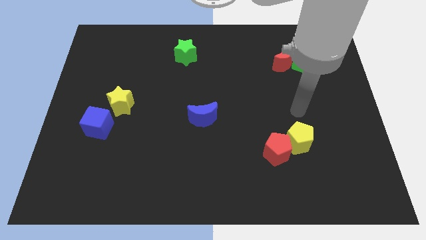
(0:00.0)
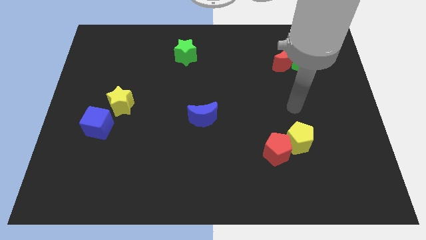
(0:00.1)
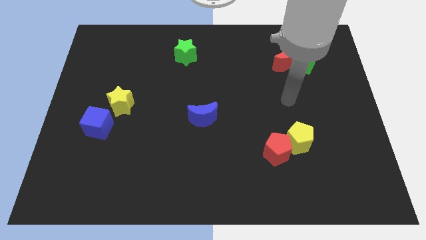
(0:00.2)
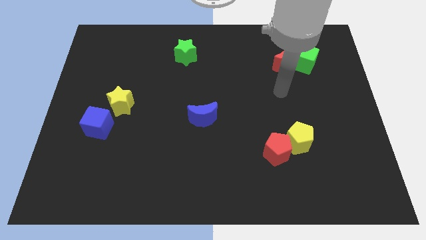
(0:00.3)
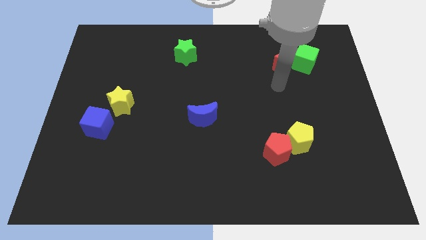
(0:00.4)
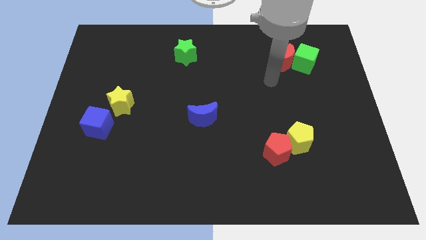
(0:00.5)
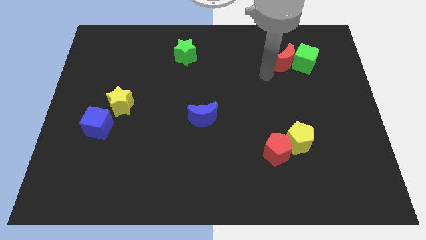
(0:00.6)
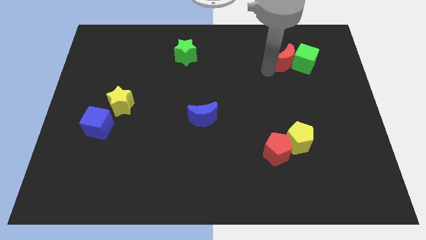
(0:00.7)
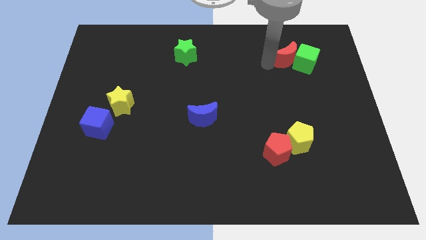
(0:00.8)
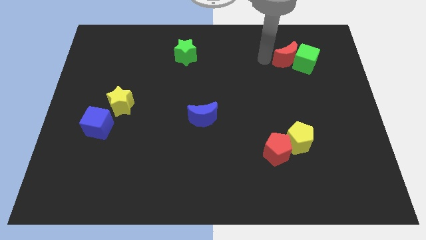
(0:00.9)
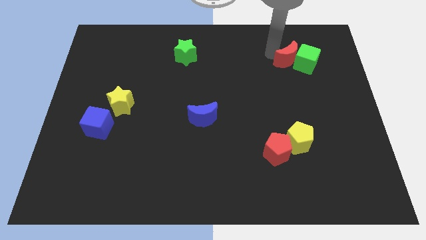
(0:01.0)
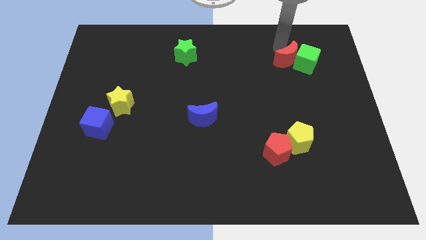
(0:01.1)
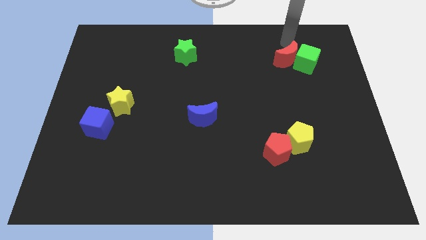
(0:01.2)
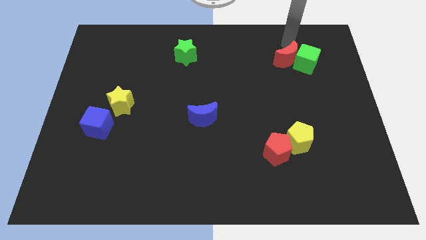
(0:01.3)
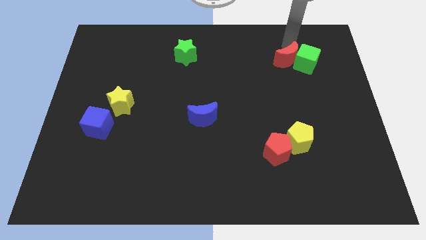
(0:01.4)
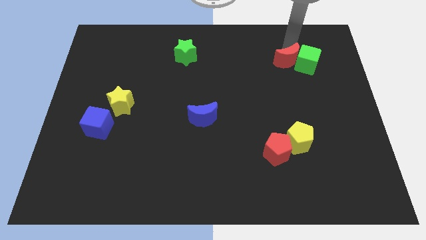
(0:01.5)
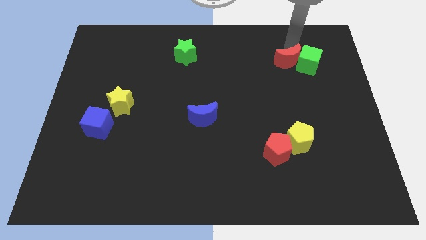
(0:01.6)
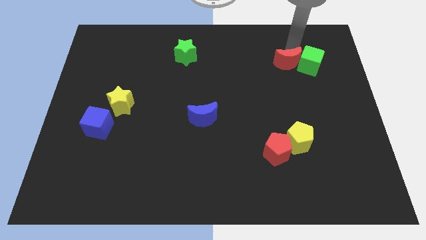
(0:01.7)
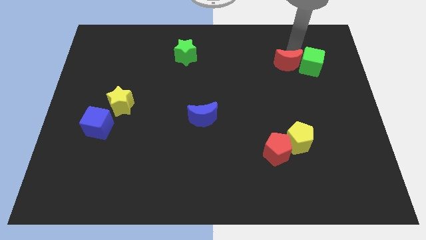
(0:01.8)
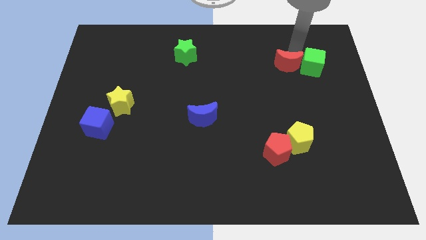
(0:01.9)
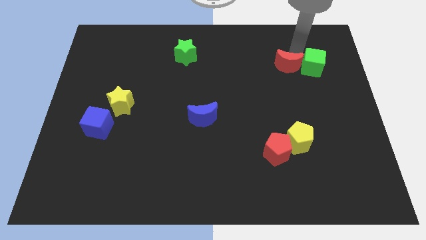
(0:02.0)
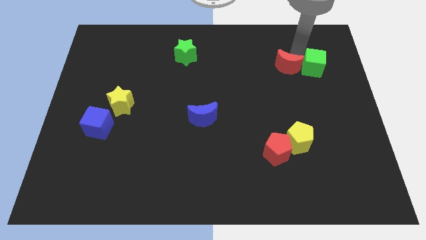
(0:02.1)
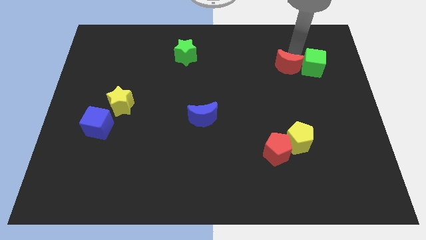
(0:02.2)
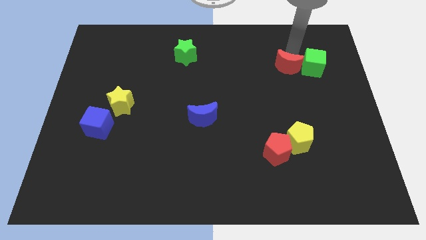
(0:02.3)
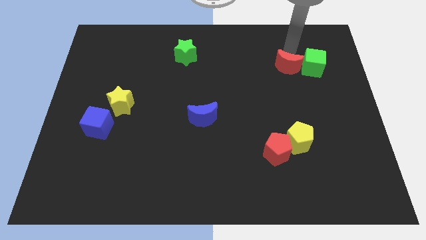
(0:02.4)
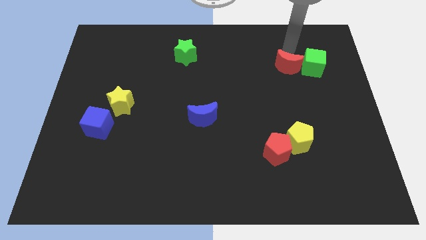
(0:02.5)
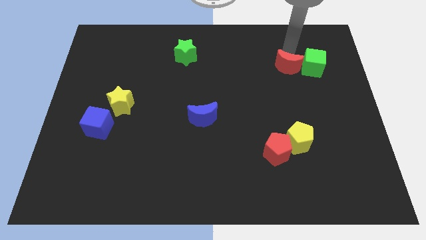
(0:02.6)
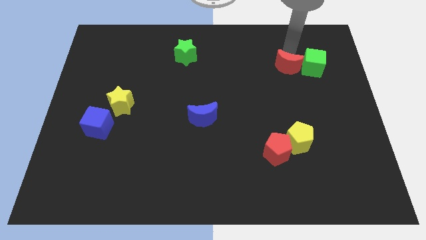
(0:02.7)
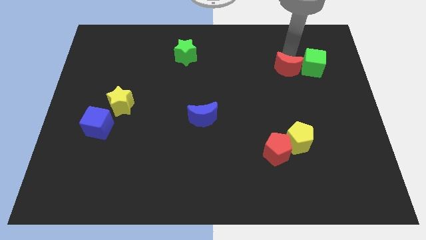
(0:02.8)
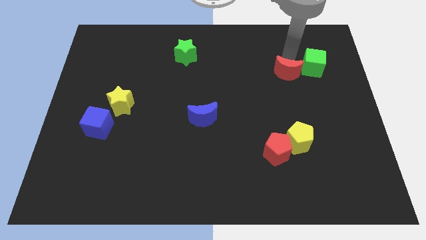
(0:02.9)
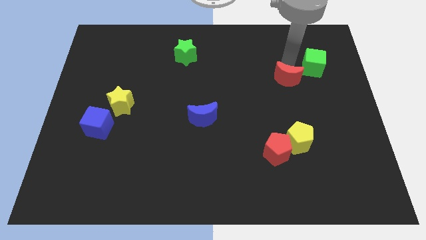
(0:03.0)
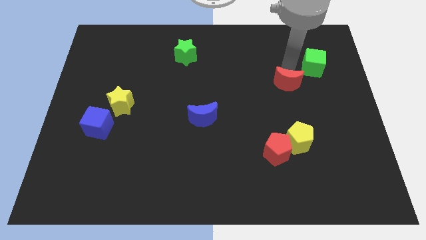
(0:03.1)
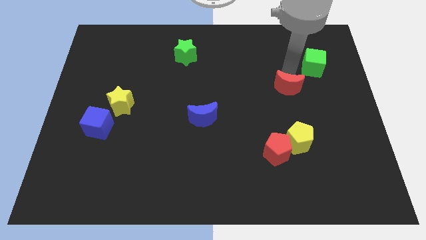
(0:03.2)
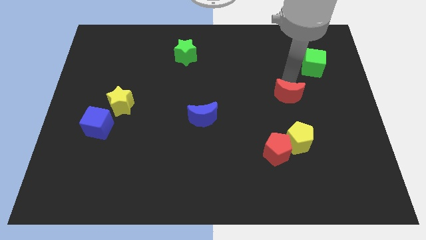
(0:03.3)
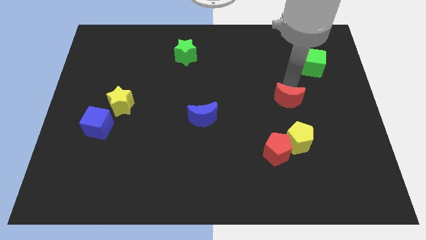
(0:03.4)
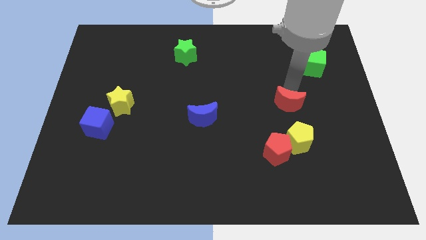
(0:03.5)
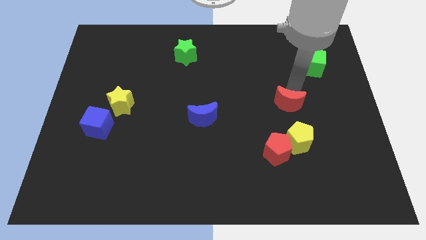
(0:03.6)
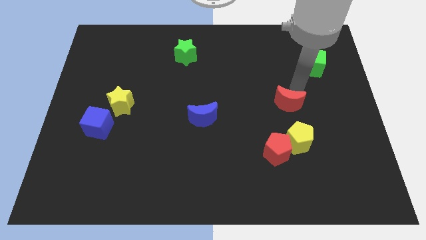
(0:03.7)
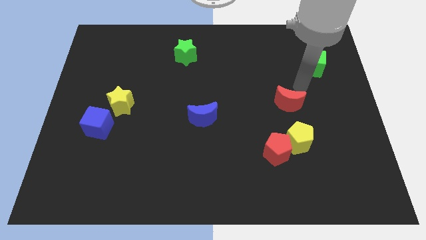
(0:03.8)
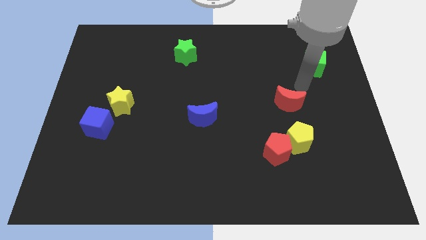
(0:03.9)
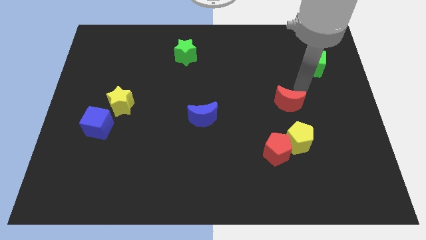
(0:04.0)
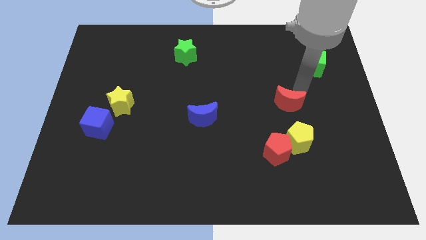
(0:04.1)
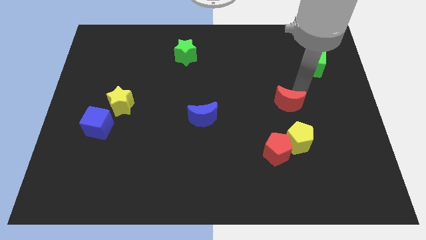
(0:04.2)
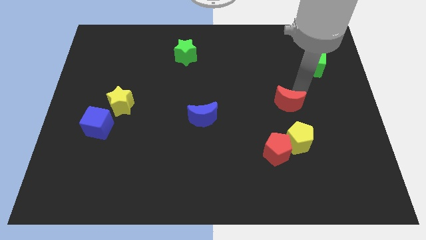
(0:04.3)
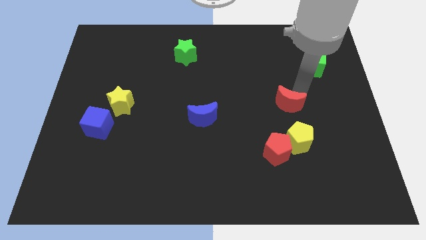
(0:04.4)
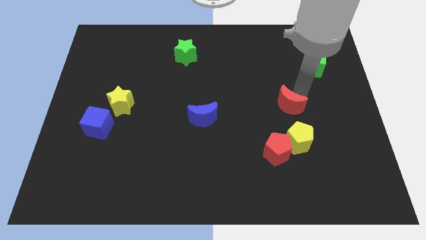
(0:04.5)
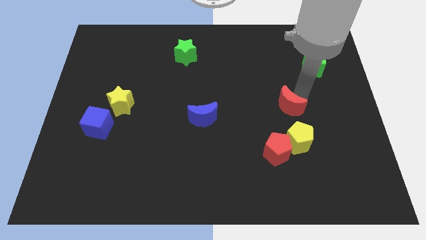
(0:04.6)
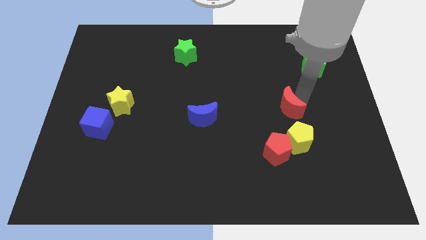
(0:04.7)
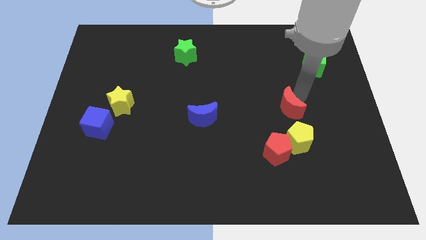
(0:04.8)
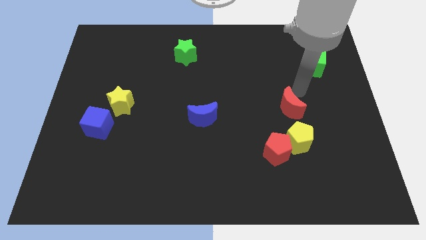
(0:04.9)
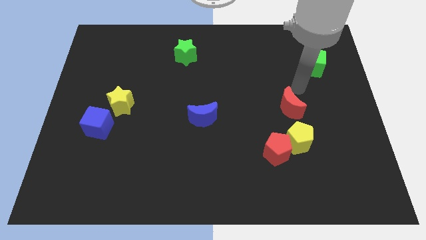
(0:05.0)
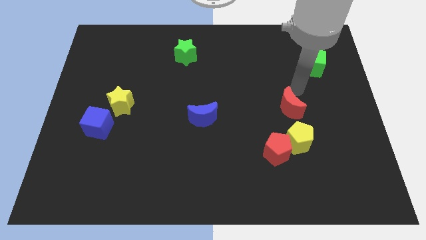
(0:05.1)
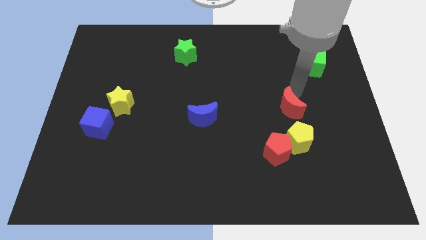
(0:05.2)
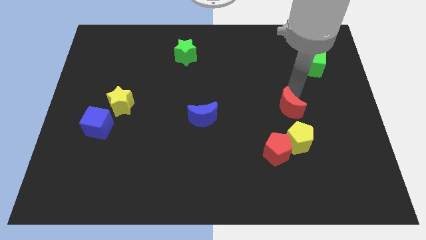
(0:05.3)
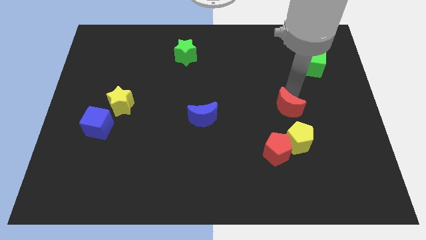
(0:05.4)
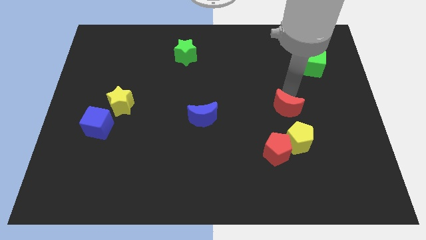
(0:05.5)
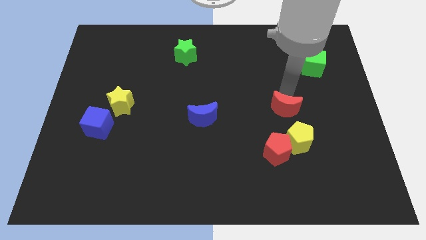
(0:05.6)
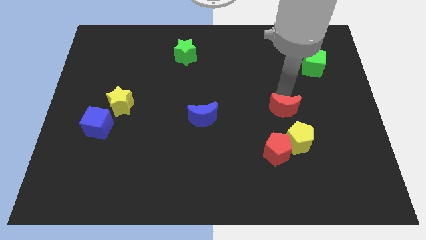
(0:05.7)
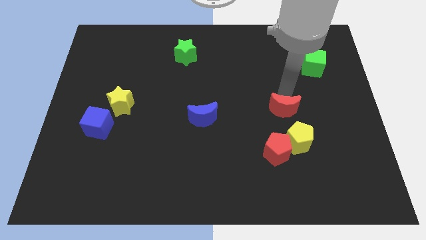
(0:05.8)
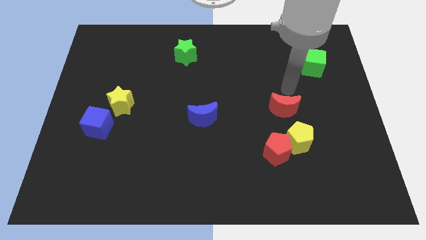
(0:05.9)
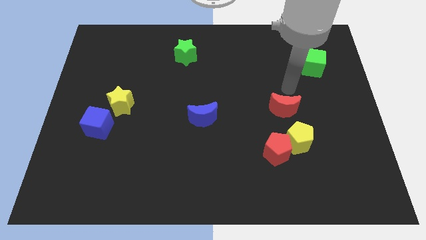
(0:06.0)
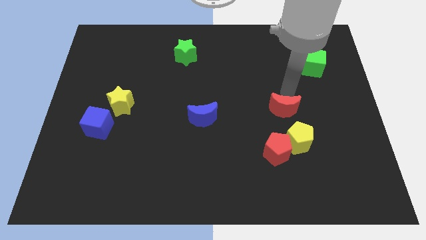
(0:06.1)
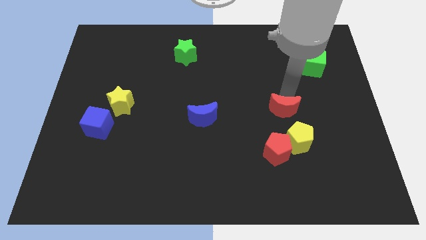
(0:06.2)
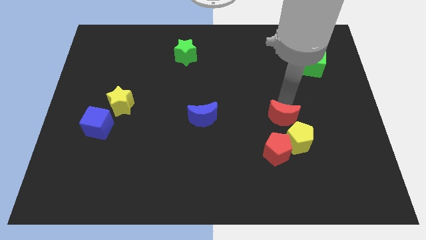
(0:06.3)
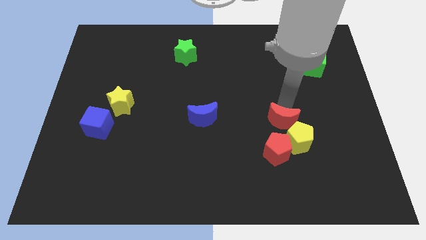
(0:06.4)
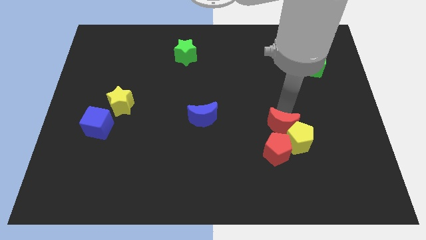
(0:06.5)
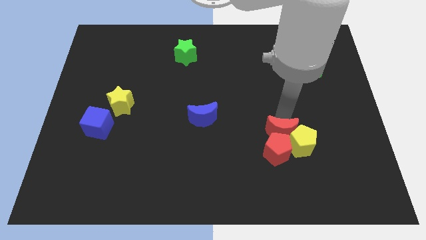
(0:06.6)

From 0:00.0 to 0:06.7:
move the red moon towards the red pentagon

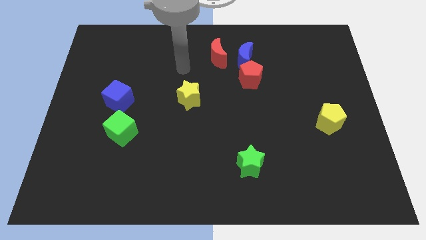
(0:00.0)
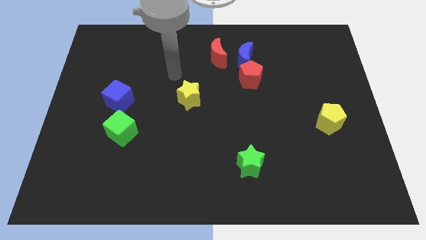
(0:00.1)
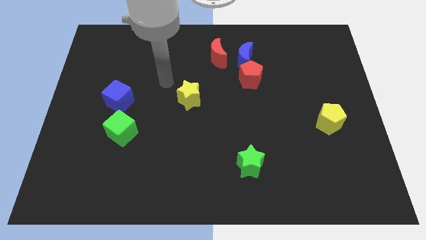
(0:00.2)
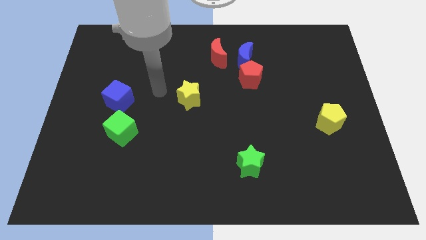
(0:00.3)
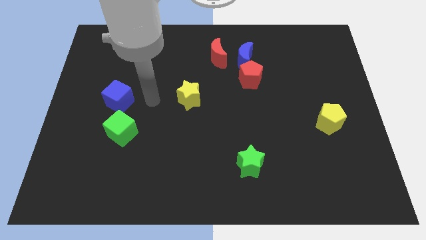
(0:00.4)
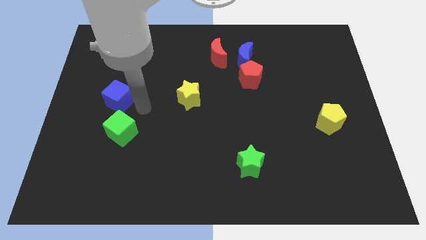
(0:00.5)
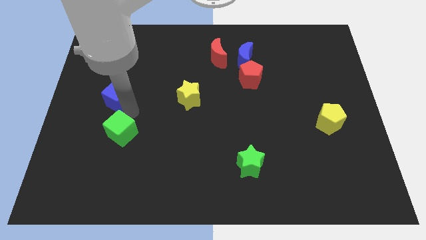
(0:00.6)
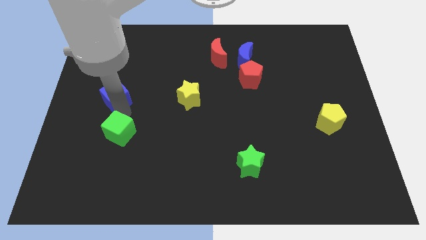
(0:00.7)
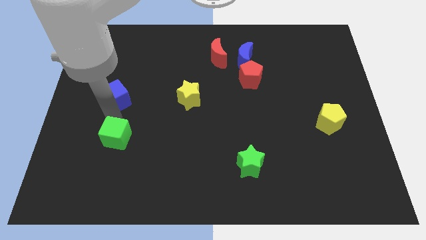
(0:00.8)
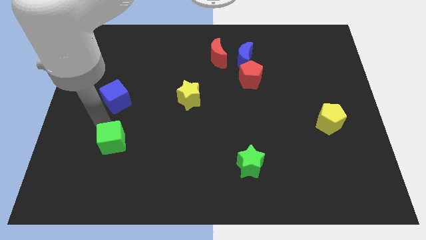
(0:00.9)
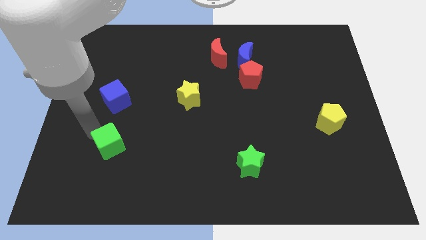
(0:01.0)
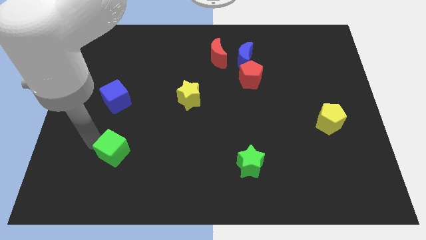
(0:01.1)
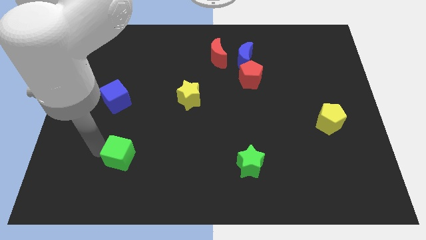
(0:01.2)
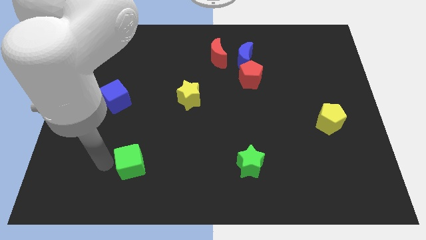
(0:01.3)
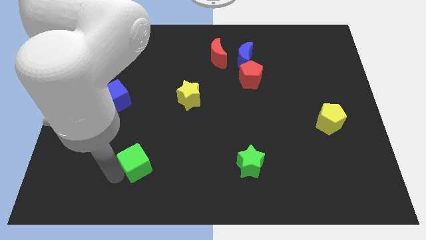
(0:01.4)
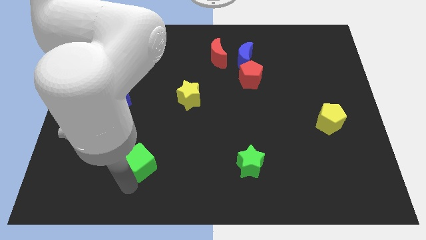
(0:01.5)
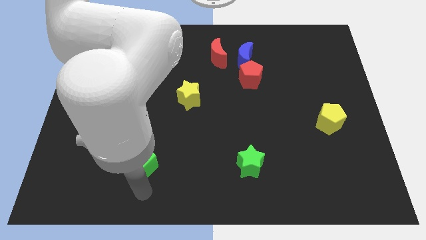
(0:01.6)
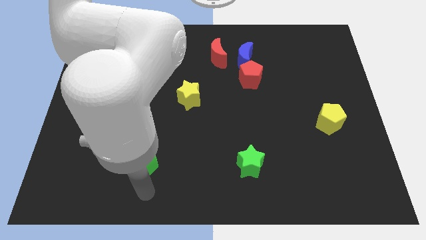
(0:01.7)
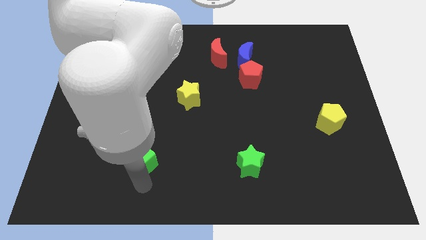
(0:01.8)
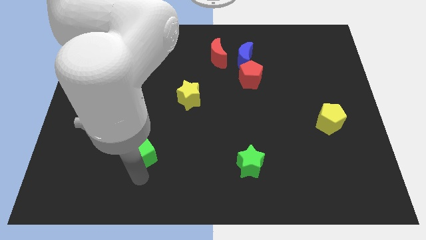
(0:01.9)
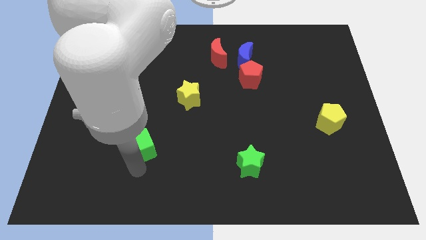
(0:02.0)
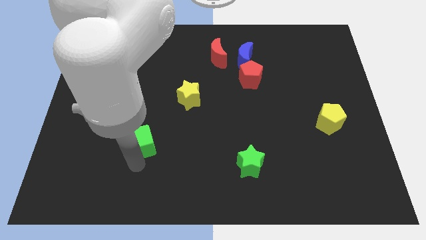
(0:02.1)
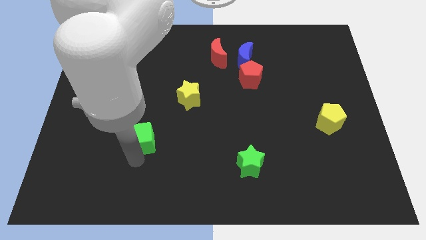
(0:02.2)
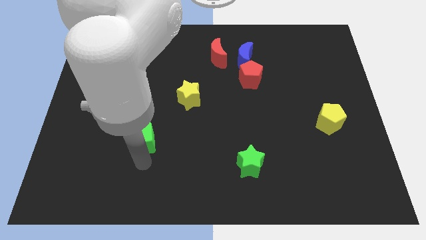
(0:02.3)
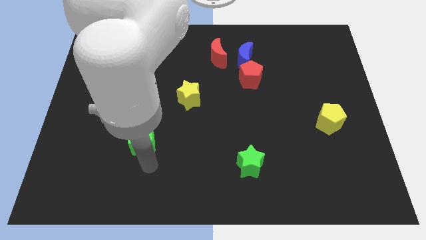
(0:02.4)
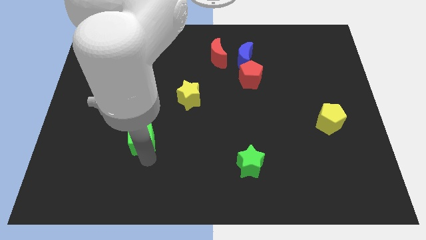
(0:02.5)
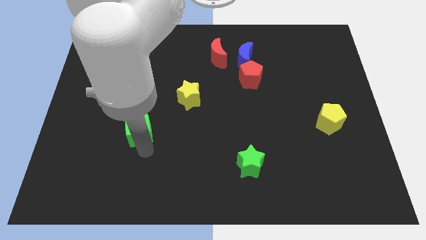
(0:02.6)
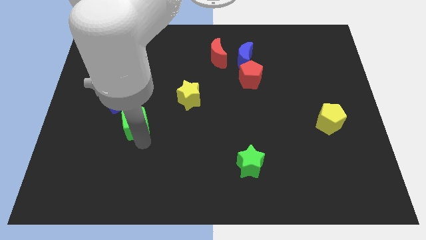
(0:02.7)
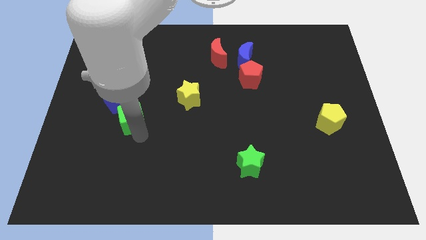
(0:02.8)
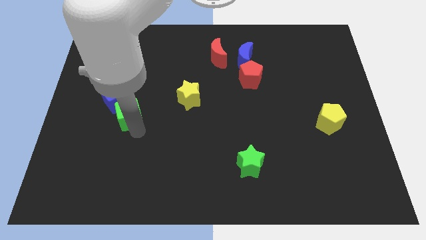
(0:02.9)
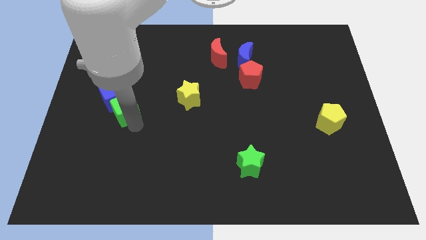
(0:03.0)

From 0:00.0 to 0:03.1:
put the green cube towards the blue cube
